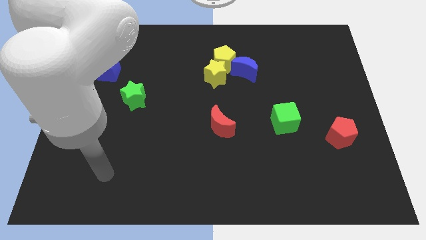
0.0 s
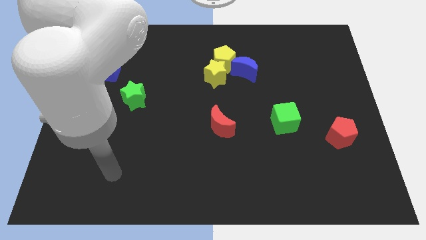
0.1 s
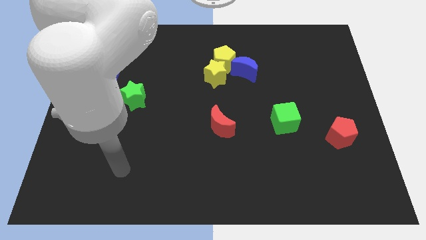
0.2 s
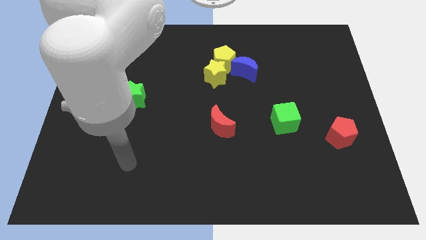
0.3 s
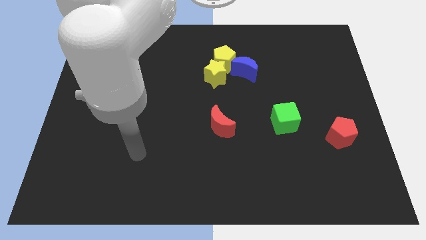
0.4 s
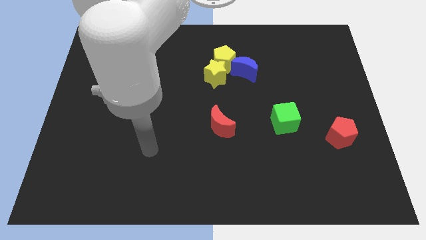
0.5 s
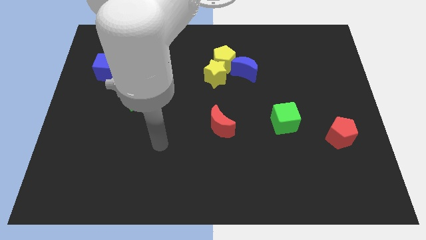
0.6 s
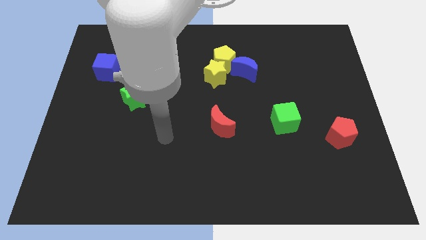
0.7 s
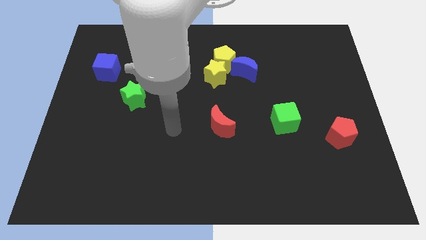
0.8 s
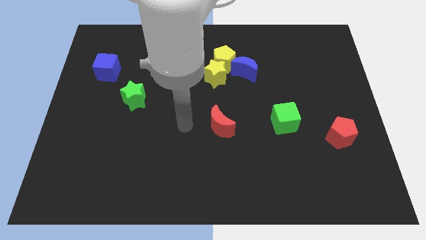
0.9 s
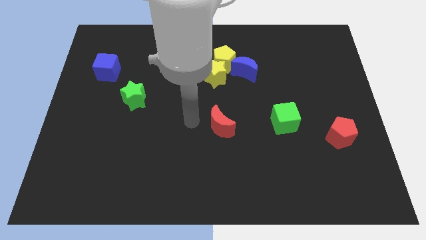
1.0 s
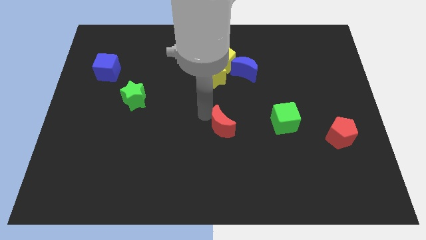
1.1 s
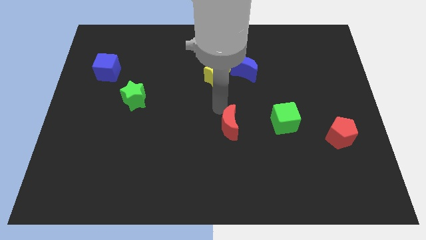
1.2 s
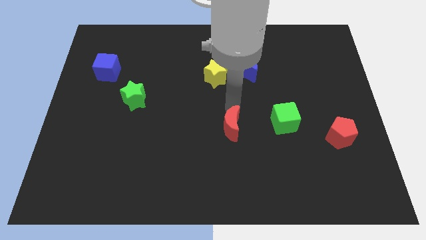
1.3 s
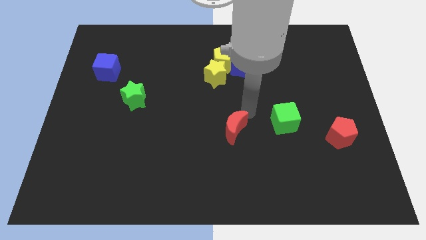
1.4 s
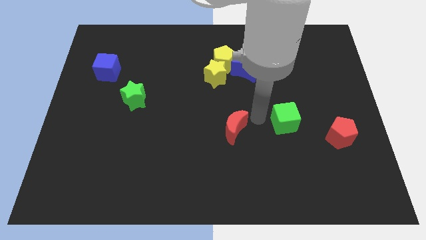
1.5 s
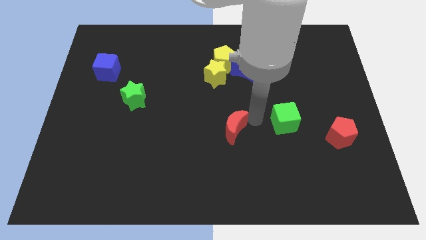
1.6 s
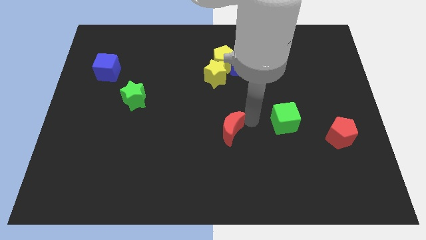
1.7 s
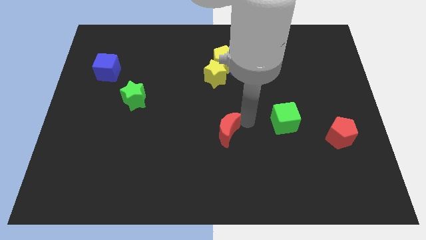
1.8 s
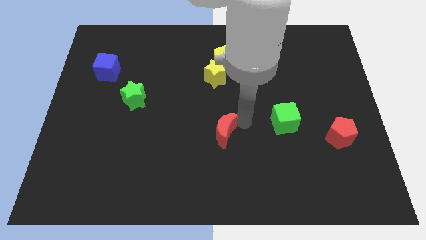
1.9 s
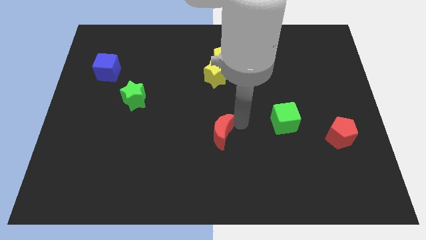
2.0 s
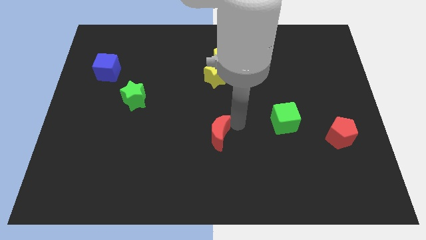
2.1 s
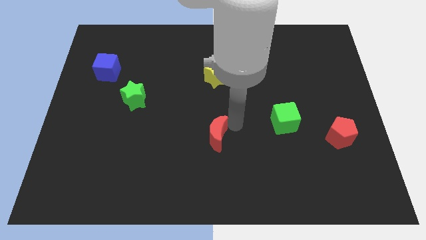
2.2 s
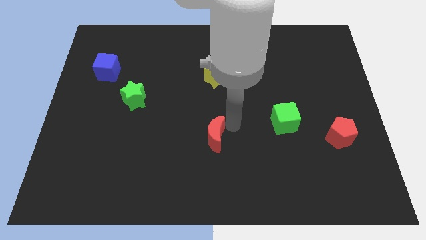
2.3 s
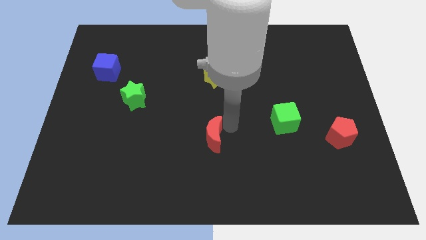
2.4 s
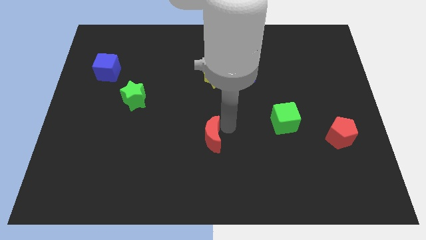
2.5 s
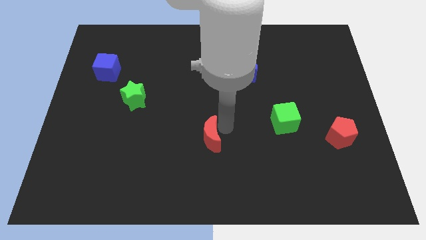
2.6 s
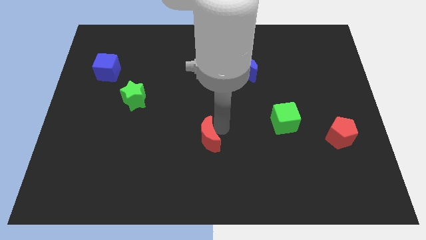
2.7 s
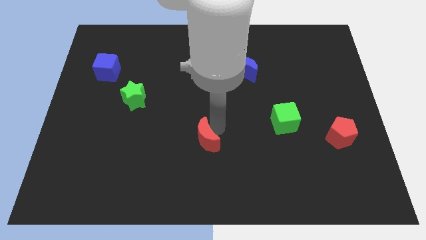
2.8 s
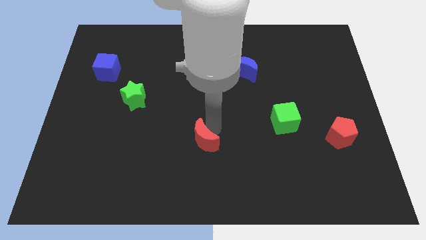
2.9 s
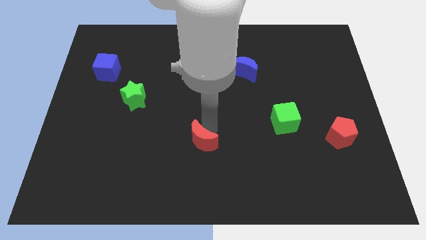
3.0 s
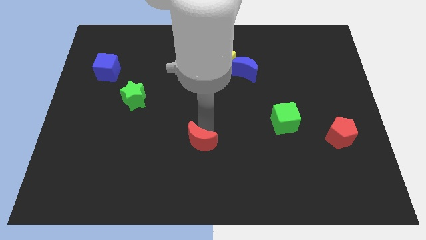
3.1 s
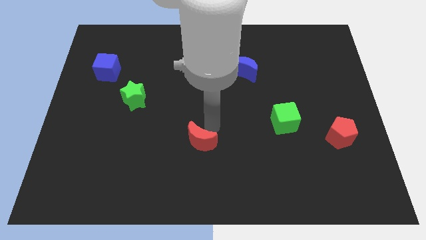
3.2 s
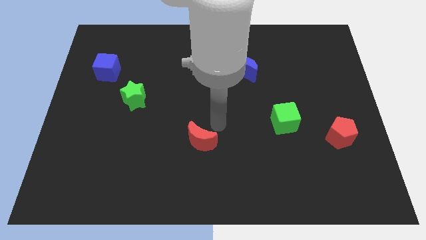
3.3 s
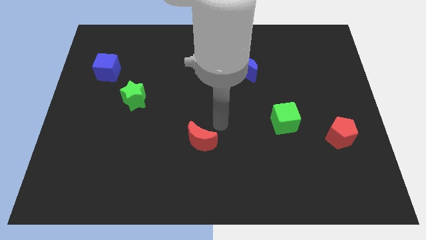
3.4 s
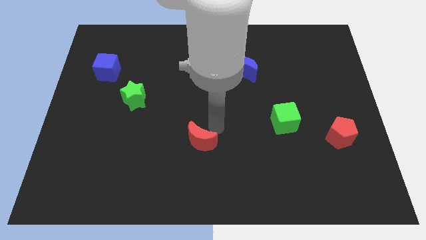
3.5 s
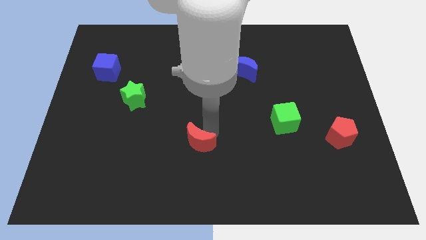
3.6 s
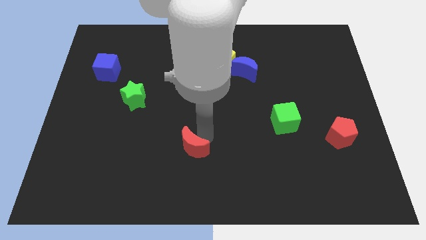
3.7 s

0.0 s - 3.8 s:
move the red moon somewhat down and to the left diagonally

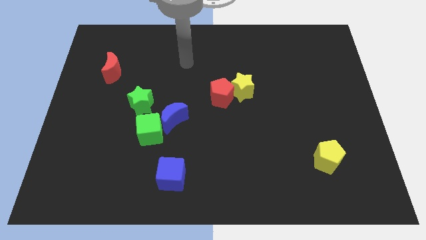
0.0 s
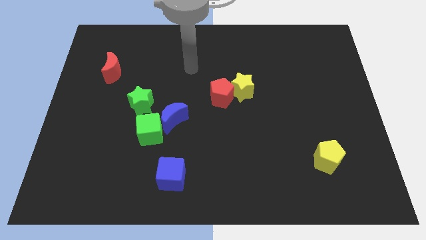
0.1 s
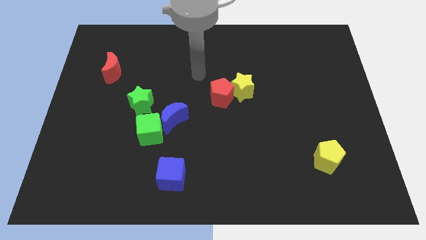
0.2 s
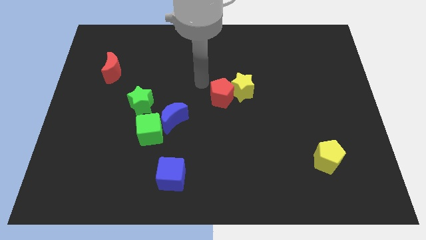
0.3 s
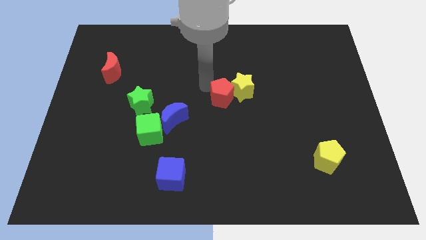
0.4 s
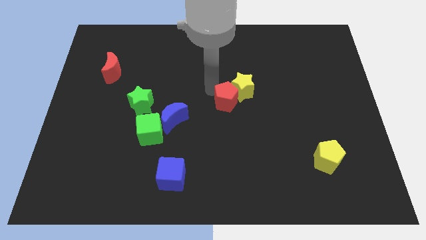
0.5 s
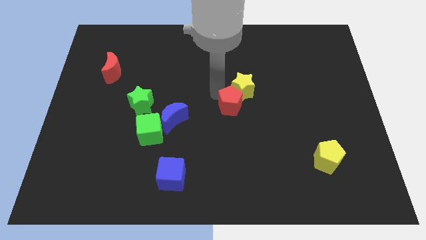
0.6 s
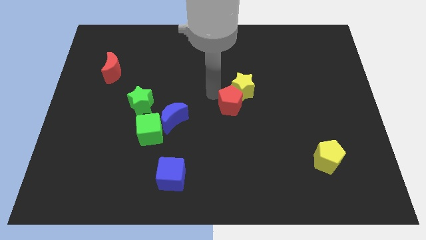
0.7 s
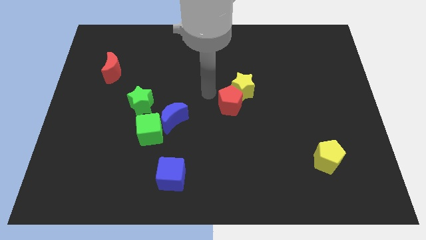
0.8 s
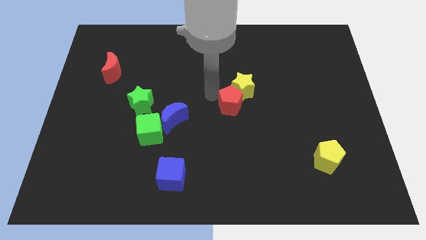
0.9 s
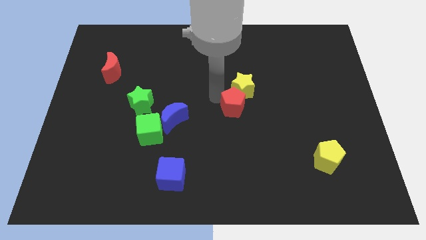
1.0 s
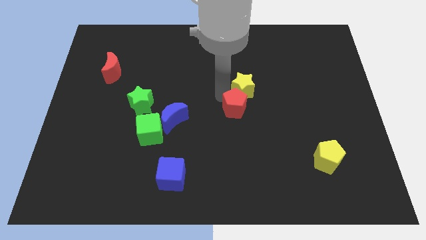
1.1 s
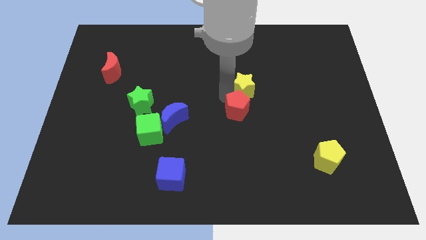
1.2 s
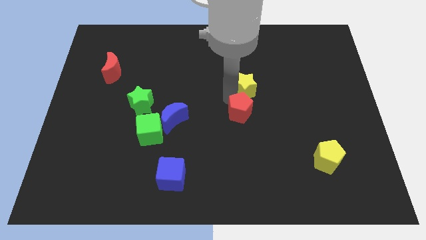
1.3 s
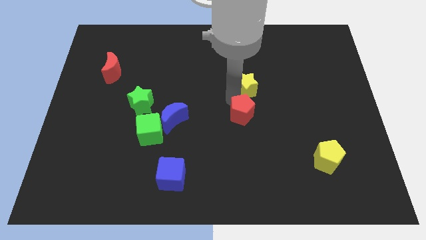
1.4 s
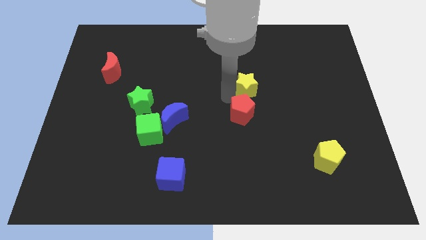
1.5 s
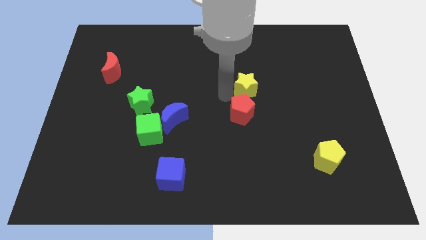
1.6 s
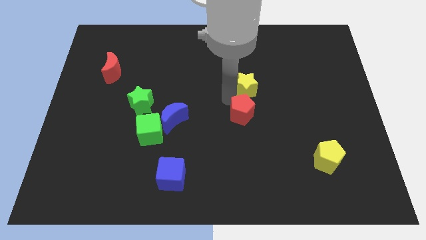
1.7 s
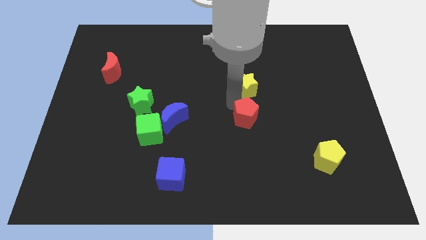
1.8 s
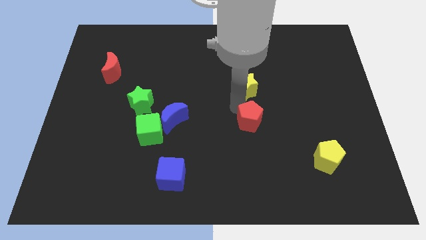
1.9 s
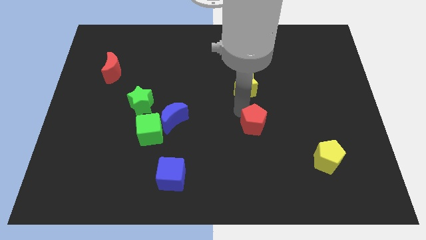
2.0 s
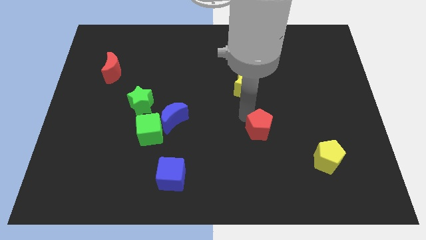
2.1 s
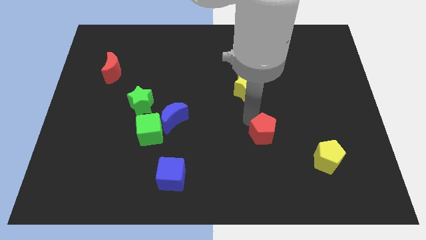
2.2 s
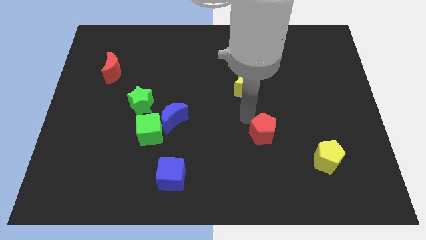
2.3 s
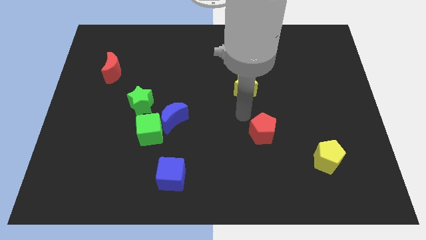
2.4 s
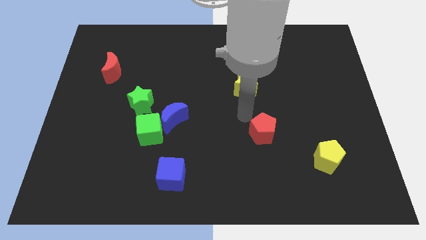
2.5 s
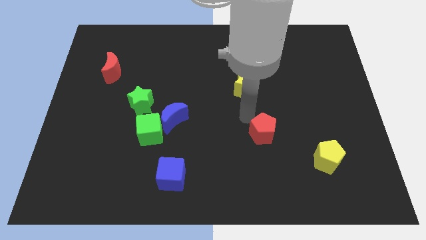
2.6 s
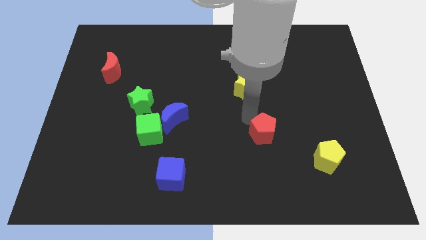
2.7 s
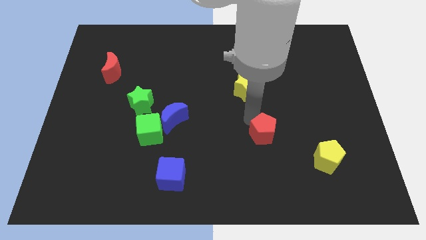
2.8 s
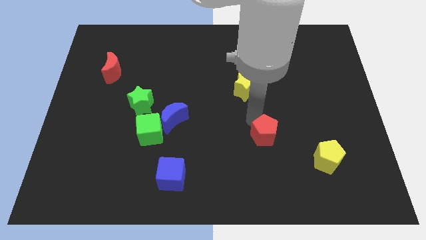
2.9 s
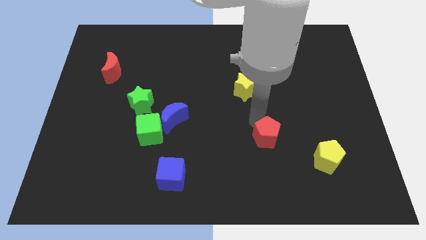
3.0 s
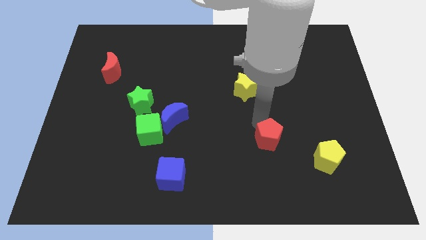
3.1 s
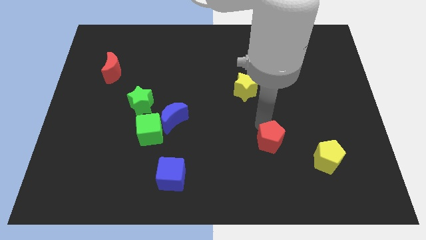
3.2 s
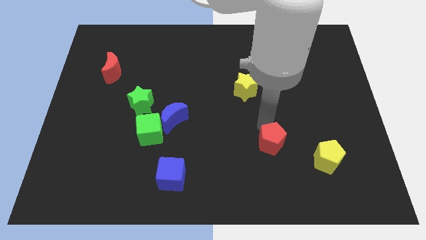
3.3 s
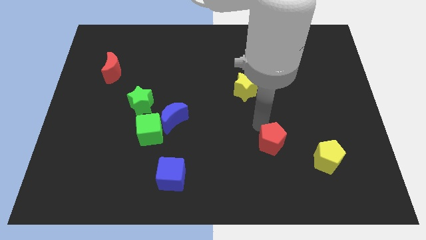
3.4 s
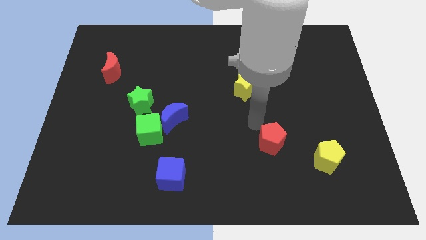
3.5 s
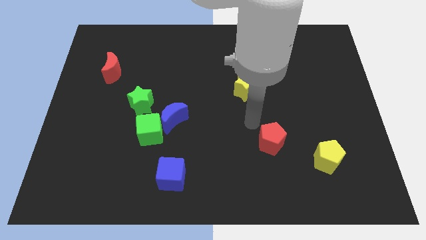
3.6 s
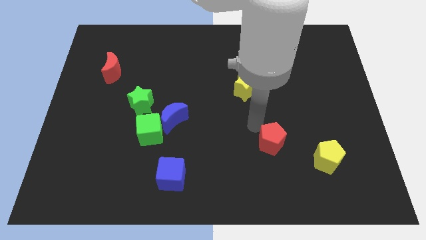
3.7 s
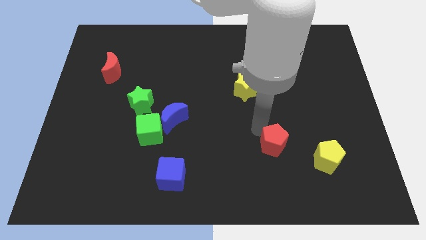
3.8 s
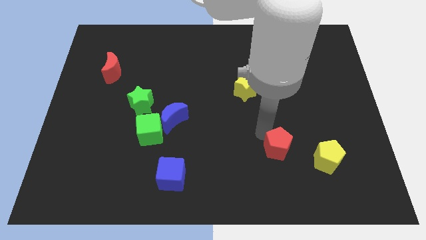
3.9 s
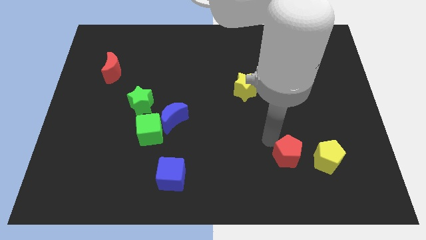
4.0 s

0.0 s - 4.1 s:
push the red pentagon down and to the right diagonally

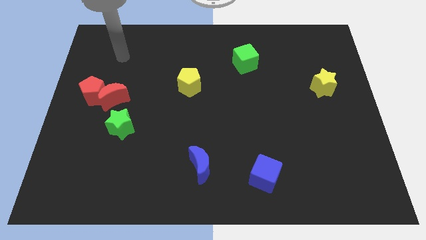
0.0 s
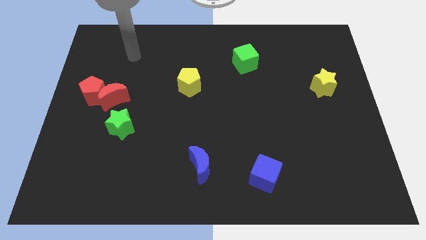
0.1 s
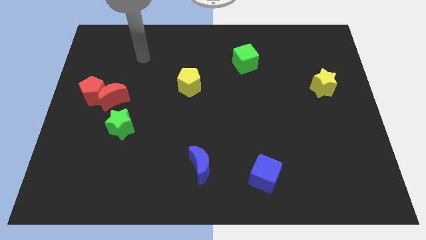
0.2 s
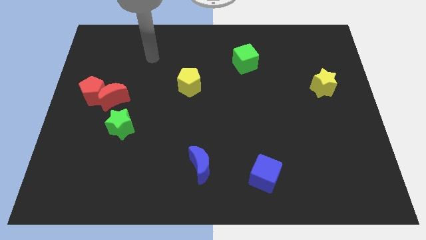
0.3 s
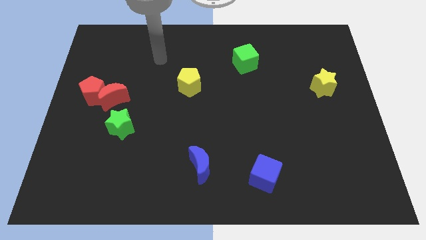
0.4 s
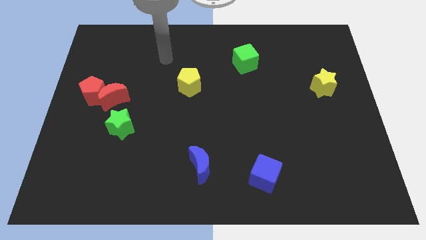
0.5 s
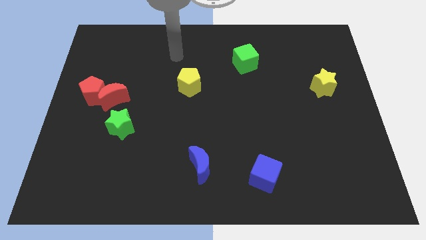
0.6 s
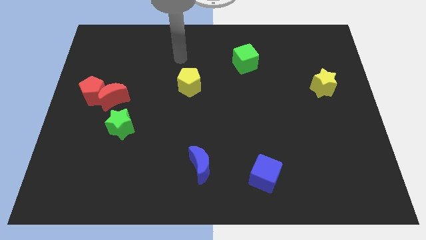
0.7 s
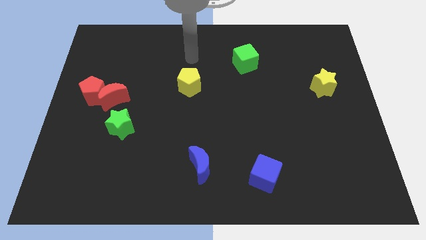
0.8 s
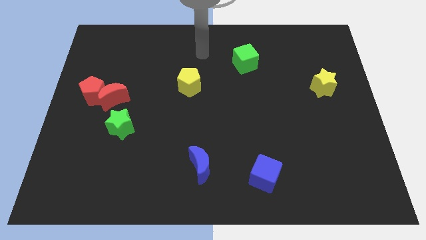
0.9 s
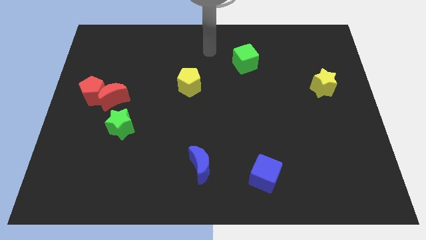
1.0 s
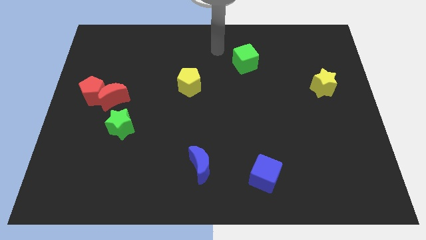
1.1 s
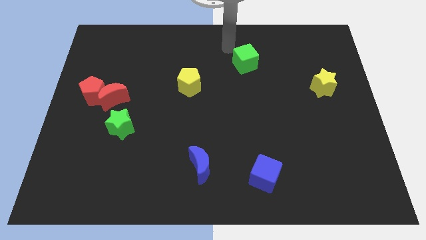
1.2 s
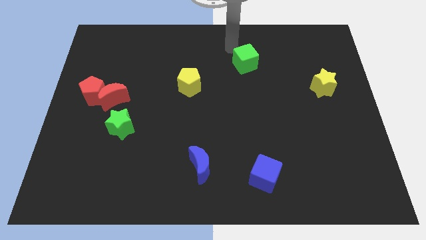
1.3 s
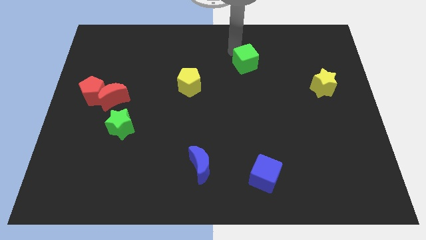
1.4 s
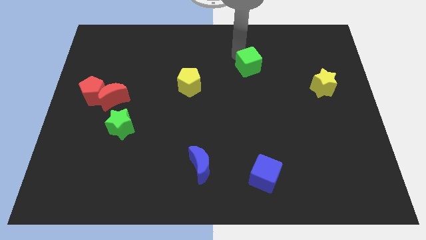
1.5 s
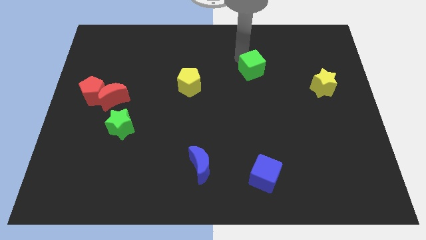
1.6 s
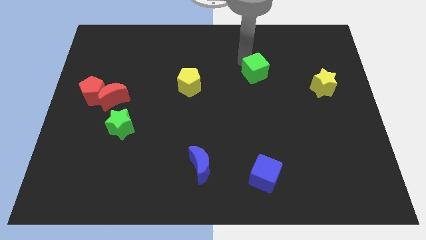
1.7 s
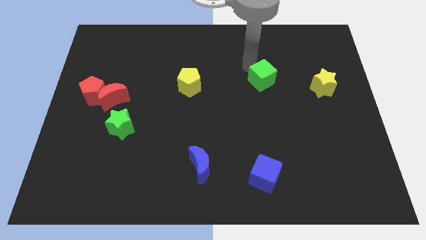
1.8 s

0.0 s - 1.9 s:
move the green cube down and right somewhat
